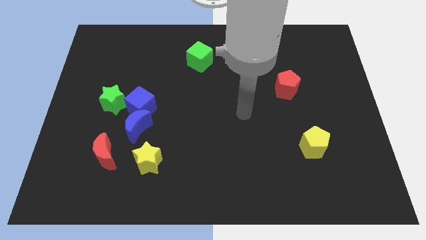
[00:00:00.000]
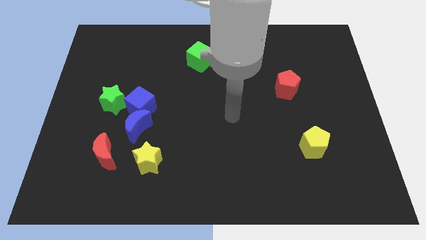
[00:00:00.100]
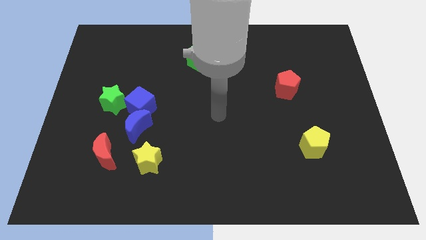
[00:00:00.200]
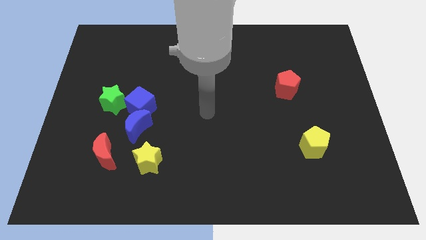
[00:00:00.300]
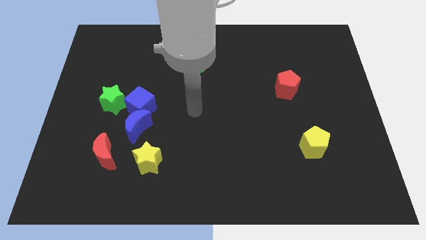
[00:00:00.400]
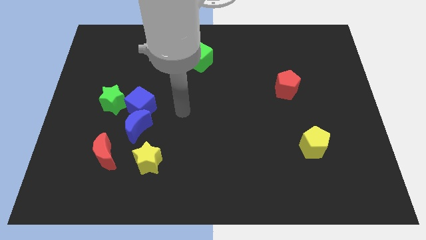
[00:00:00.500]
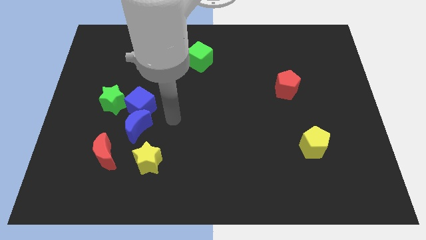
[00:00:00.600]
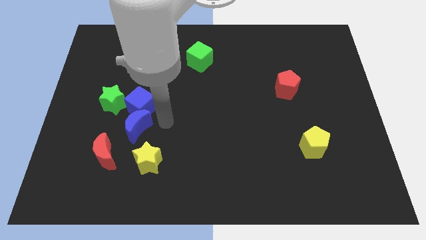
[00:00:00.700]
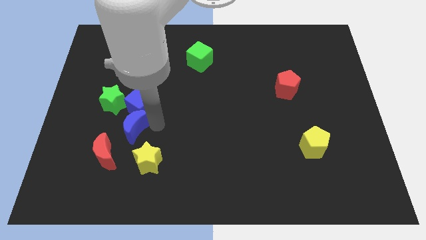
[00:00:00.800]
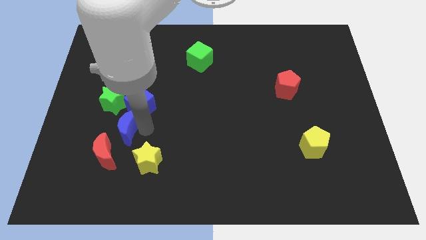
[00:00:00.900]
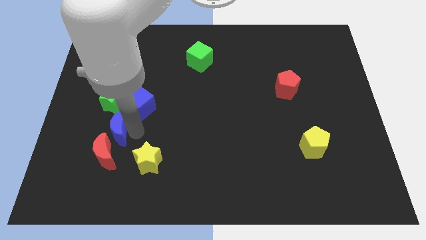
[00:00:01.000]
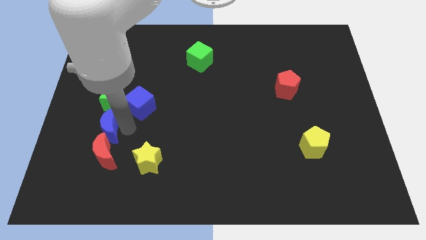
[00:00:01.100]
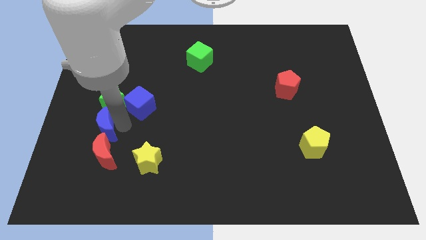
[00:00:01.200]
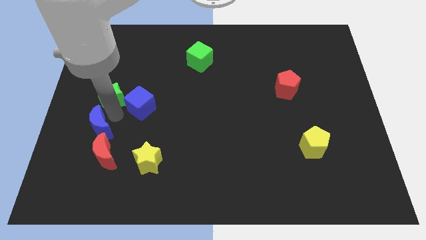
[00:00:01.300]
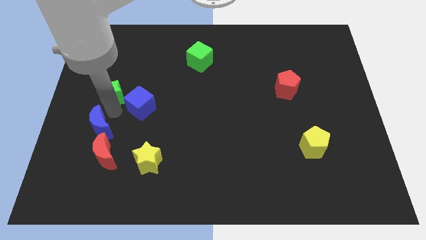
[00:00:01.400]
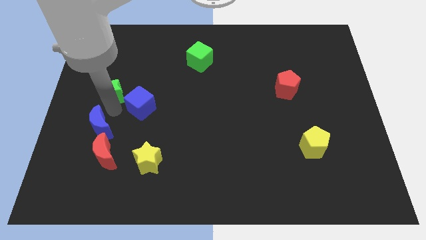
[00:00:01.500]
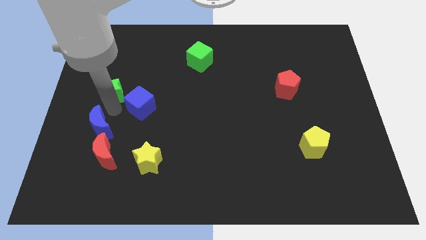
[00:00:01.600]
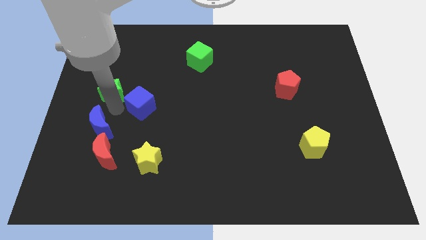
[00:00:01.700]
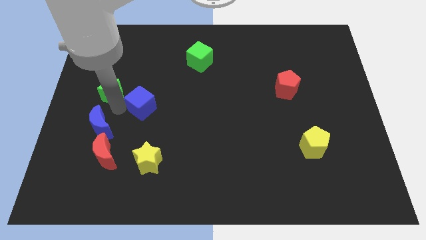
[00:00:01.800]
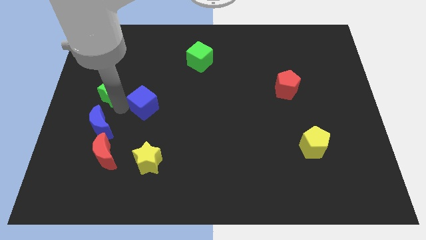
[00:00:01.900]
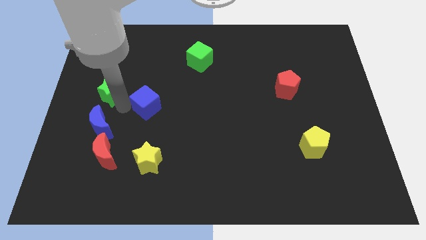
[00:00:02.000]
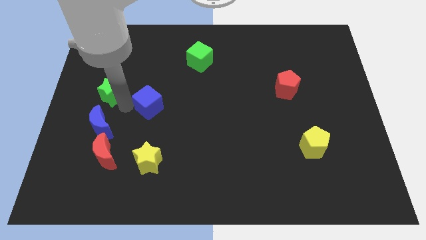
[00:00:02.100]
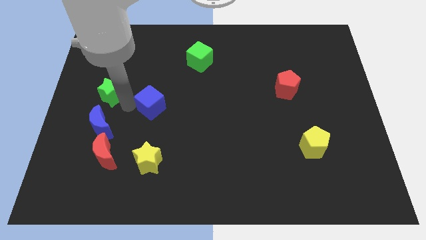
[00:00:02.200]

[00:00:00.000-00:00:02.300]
move the blue cube away from the blue moon and green star

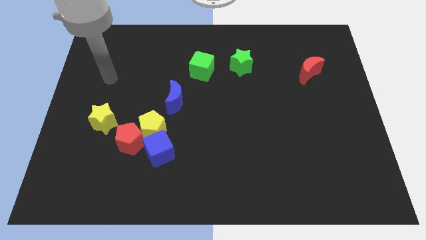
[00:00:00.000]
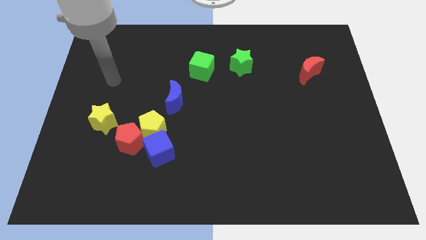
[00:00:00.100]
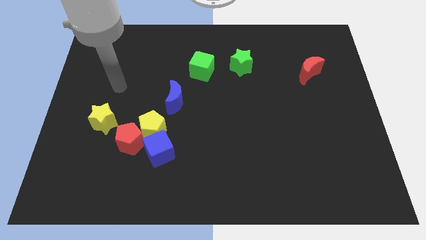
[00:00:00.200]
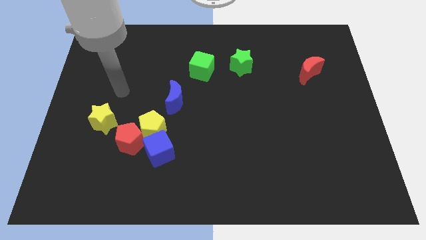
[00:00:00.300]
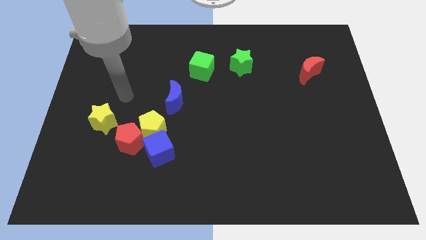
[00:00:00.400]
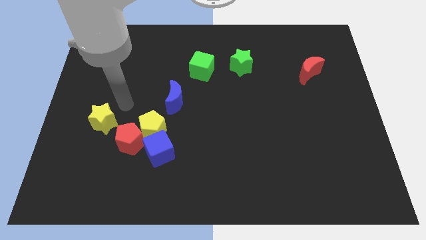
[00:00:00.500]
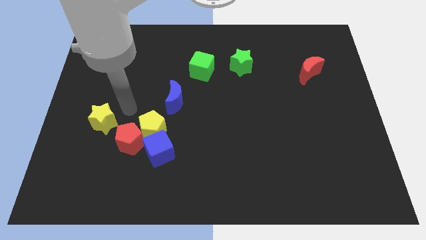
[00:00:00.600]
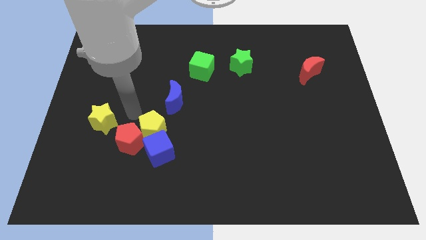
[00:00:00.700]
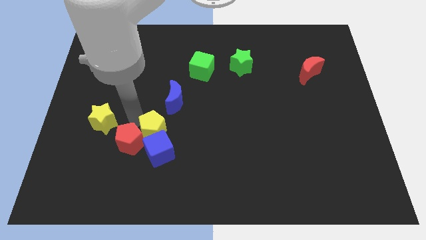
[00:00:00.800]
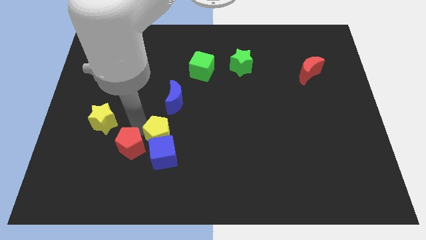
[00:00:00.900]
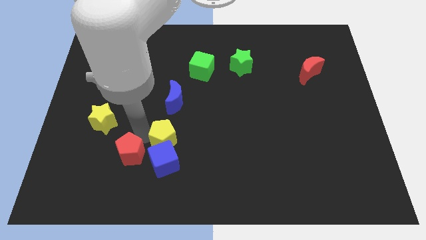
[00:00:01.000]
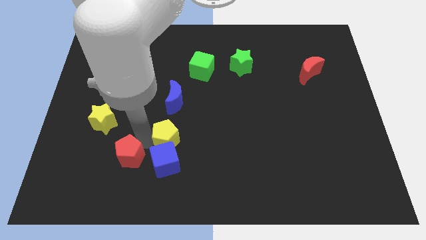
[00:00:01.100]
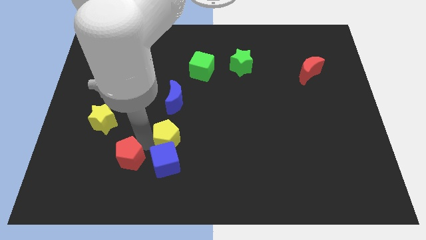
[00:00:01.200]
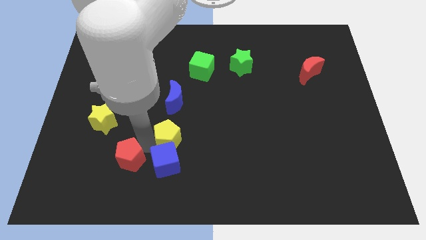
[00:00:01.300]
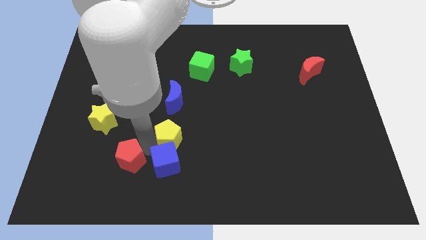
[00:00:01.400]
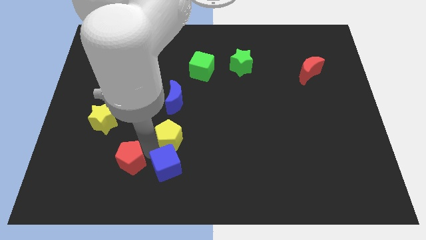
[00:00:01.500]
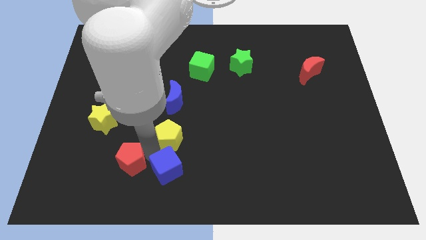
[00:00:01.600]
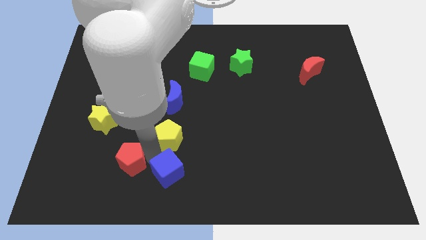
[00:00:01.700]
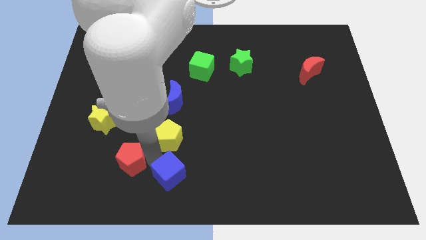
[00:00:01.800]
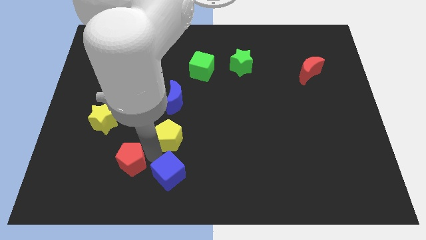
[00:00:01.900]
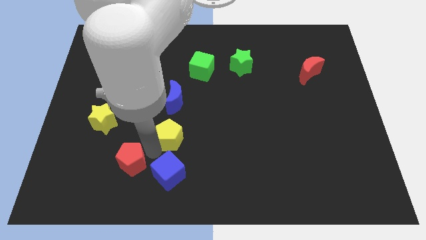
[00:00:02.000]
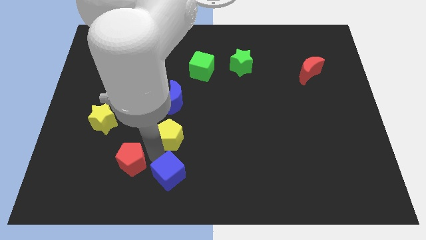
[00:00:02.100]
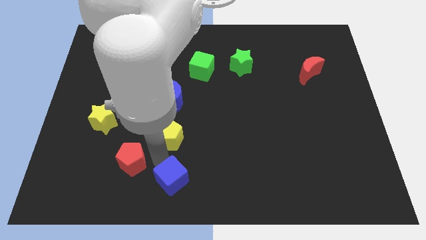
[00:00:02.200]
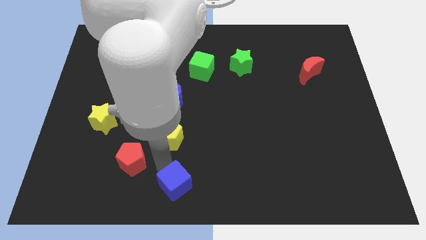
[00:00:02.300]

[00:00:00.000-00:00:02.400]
pull the blue cube apart from the yellow pentagon and red pentagon

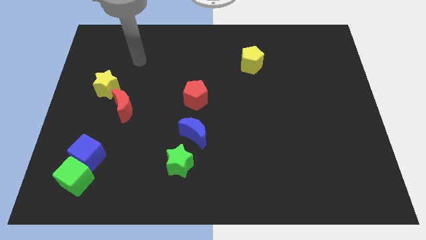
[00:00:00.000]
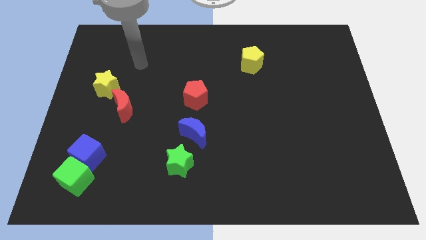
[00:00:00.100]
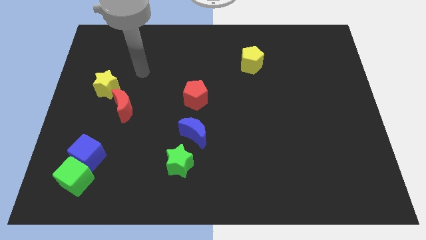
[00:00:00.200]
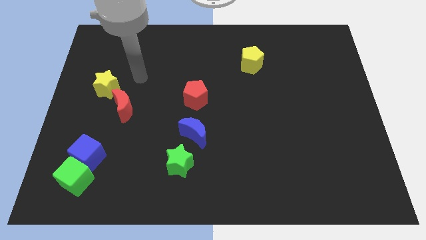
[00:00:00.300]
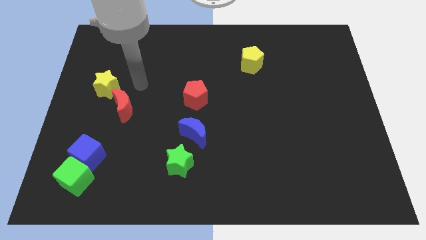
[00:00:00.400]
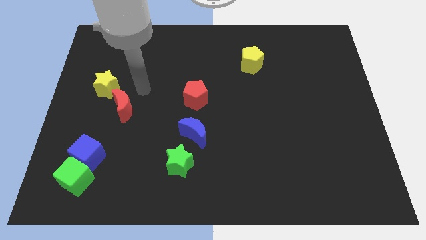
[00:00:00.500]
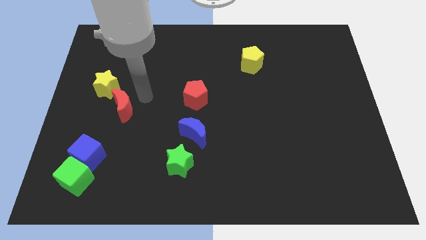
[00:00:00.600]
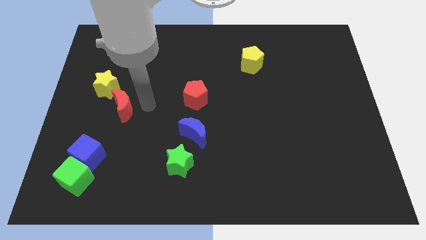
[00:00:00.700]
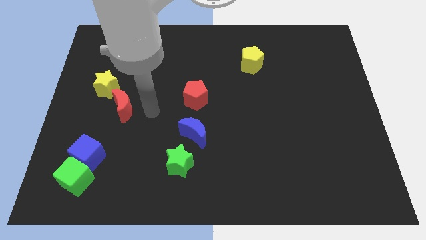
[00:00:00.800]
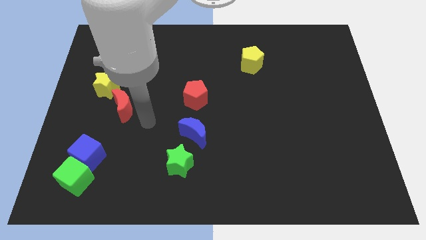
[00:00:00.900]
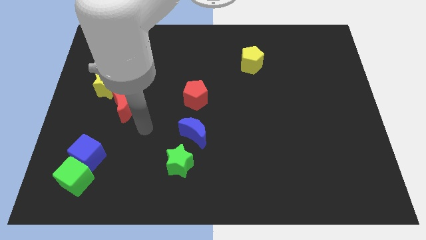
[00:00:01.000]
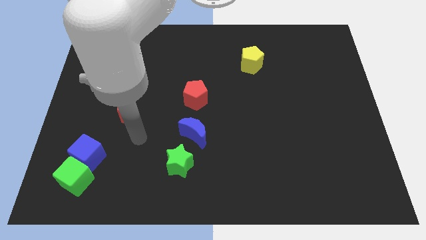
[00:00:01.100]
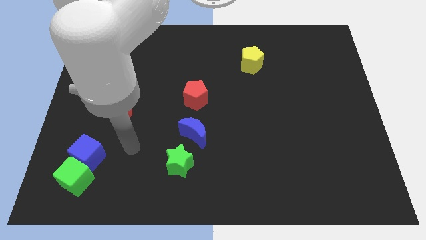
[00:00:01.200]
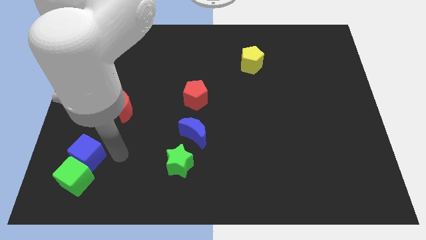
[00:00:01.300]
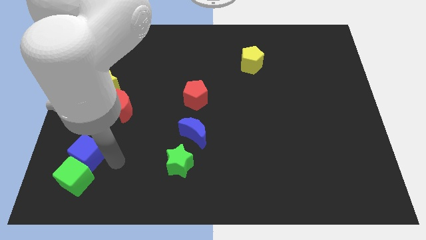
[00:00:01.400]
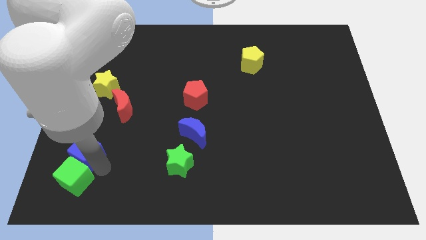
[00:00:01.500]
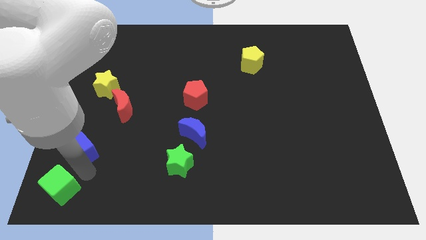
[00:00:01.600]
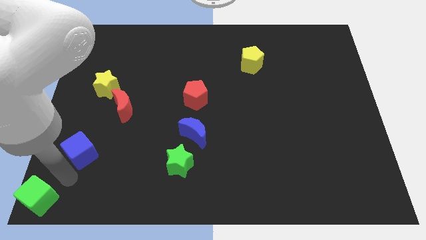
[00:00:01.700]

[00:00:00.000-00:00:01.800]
separate the blue cube from the green cube

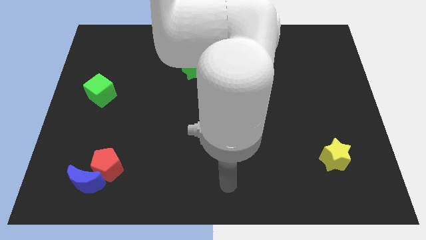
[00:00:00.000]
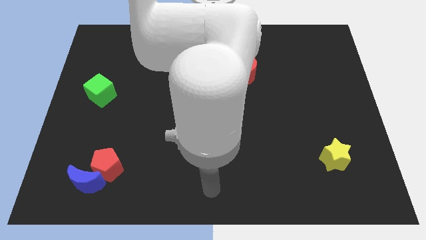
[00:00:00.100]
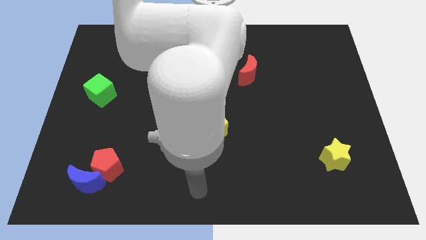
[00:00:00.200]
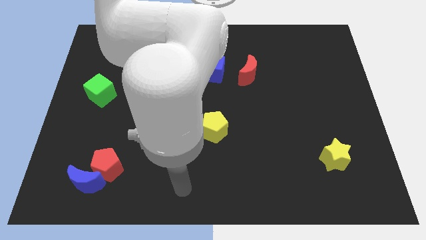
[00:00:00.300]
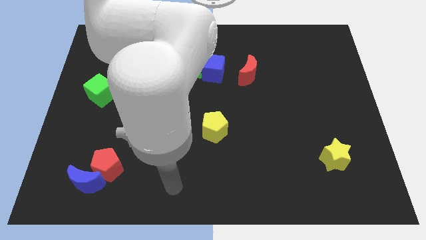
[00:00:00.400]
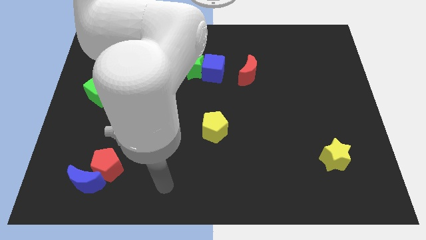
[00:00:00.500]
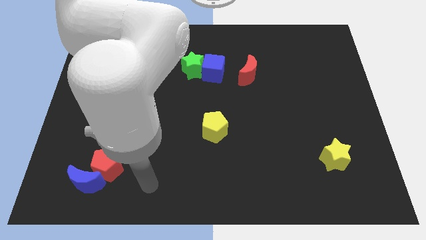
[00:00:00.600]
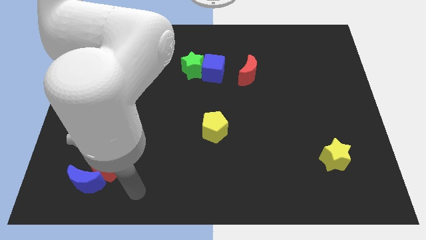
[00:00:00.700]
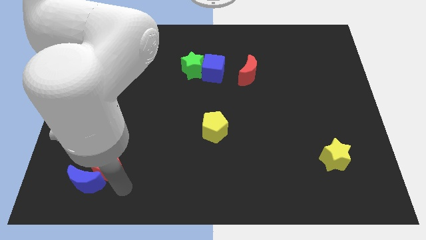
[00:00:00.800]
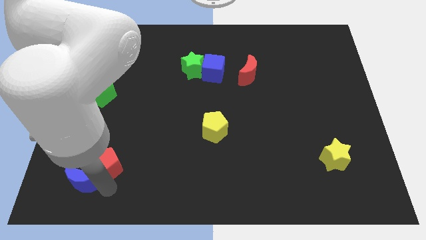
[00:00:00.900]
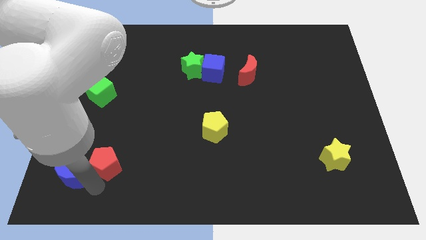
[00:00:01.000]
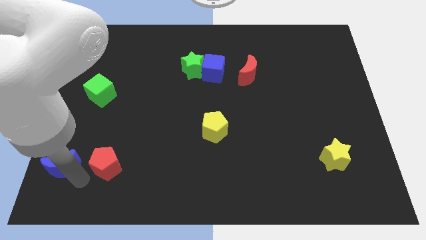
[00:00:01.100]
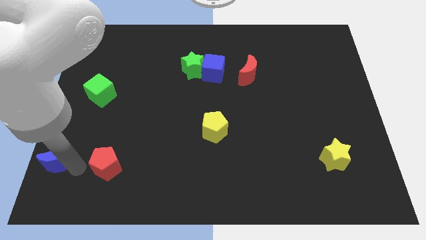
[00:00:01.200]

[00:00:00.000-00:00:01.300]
move the red pentagon away from the blue moon

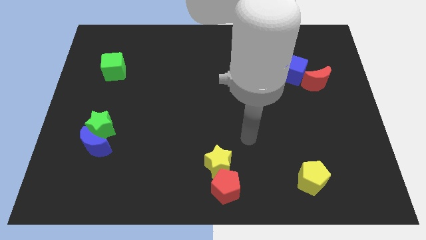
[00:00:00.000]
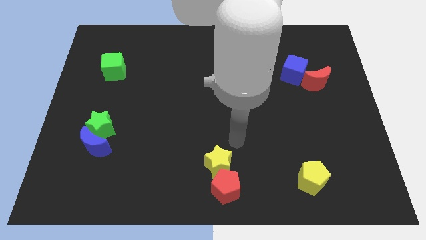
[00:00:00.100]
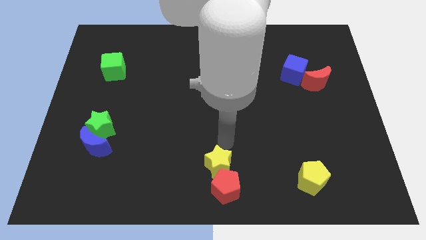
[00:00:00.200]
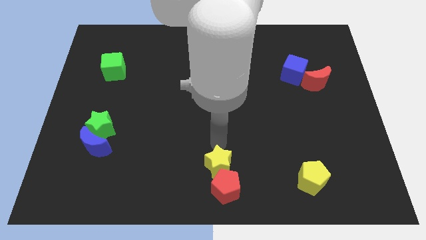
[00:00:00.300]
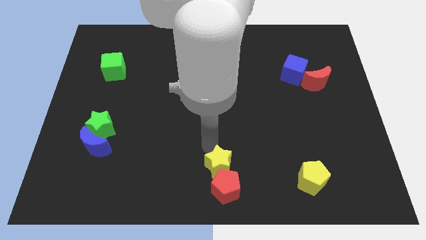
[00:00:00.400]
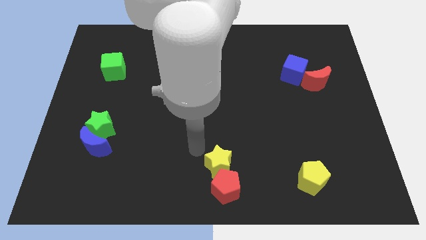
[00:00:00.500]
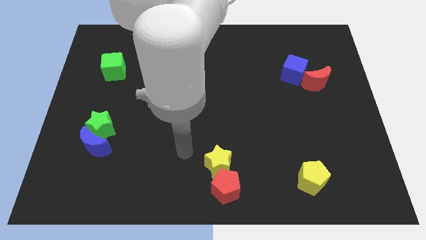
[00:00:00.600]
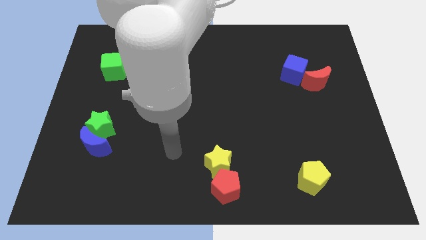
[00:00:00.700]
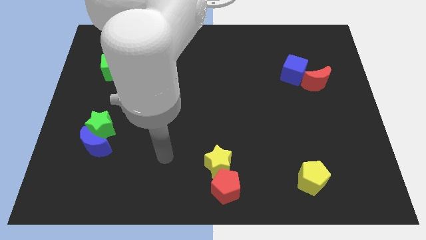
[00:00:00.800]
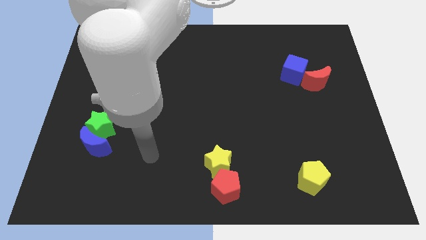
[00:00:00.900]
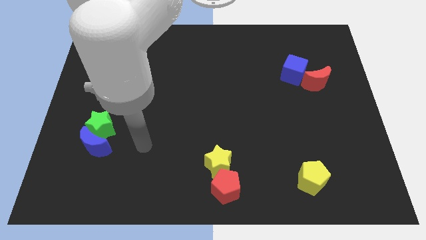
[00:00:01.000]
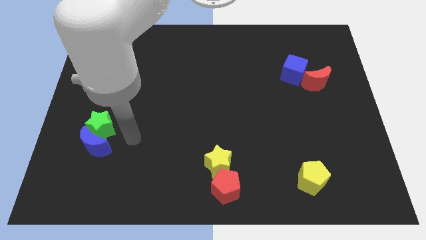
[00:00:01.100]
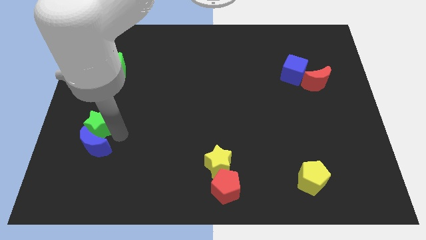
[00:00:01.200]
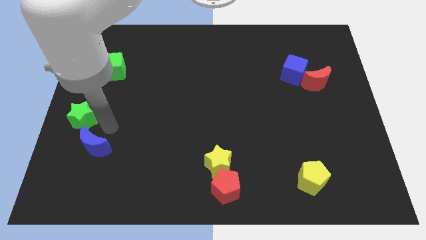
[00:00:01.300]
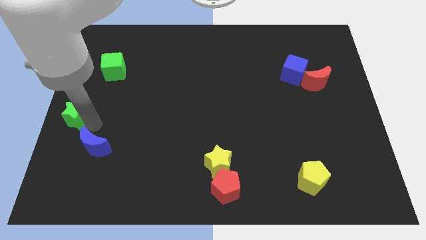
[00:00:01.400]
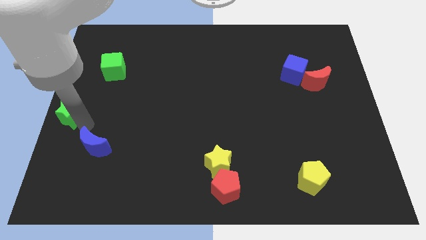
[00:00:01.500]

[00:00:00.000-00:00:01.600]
pull the blue moon apart from the green star
